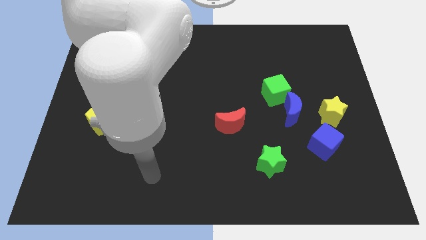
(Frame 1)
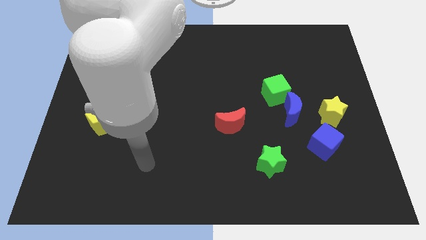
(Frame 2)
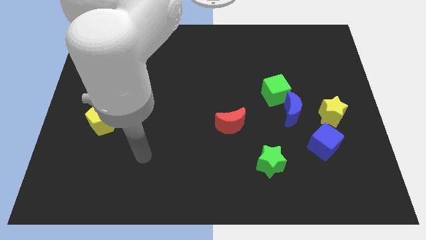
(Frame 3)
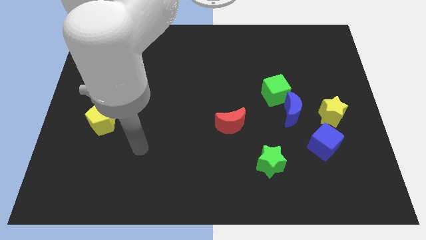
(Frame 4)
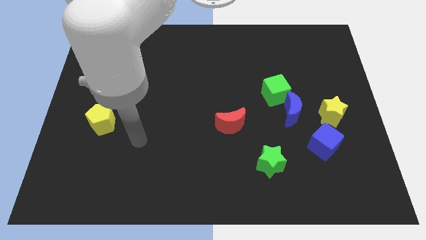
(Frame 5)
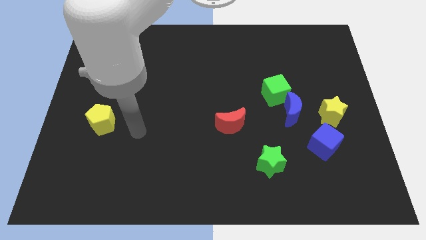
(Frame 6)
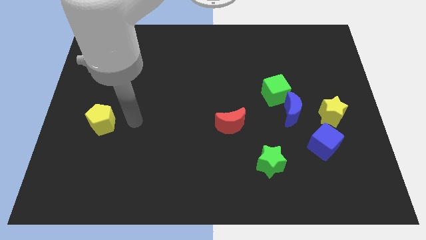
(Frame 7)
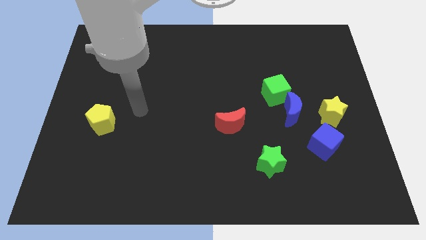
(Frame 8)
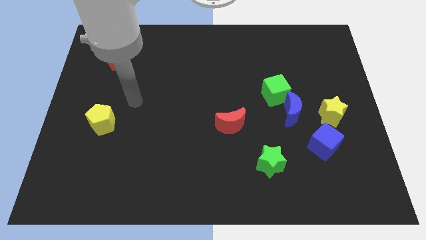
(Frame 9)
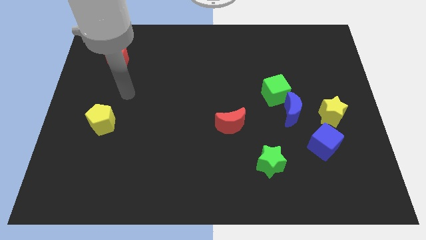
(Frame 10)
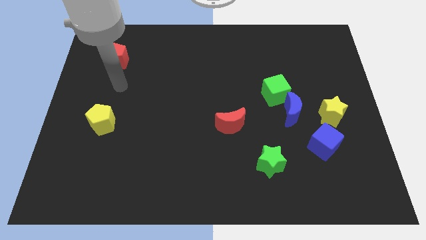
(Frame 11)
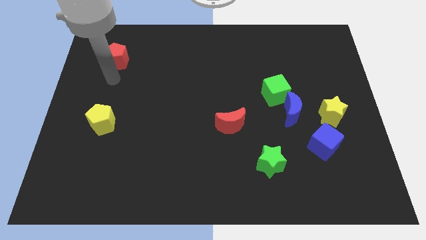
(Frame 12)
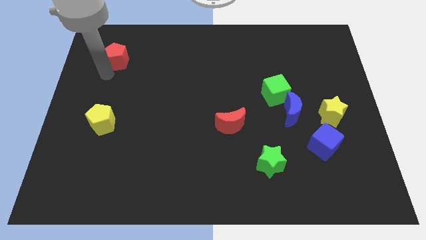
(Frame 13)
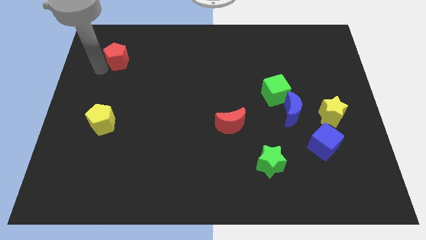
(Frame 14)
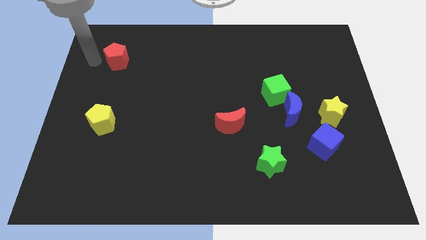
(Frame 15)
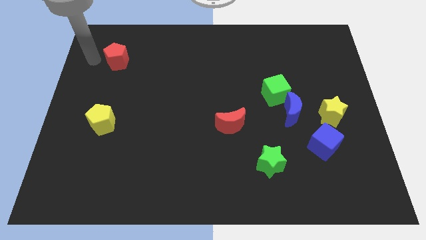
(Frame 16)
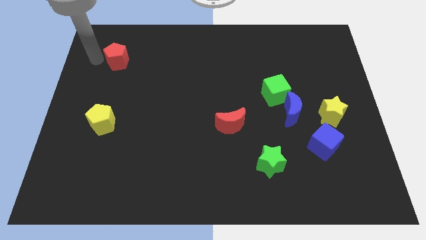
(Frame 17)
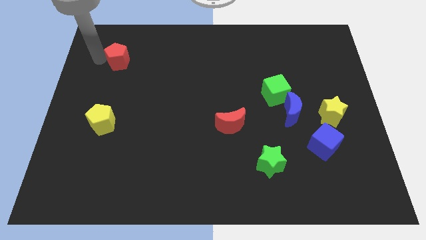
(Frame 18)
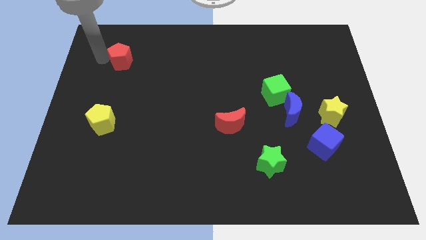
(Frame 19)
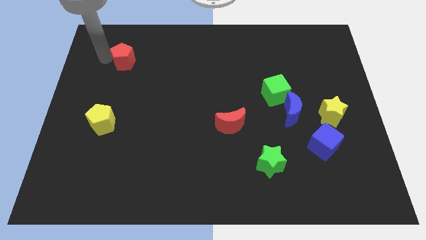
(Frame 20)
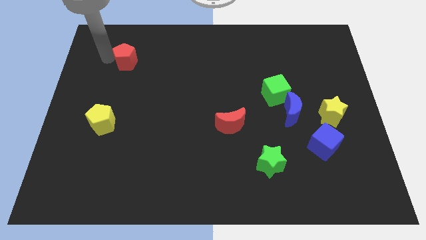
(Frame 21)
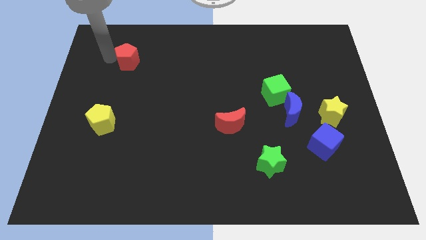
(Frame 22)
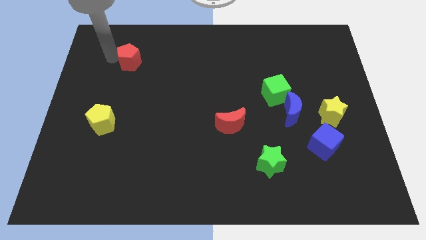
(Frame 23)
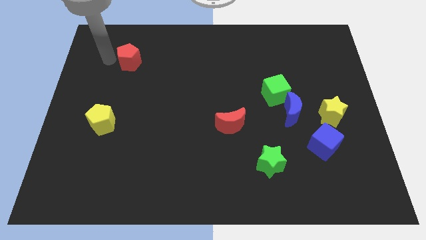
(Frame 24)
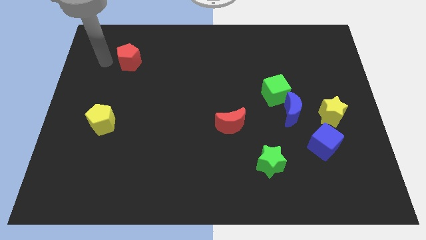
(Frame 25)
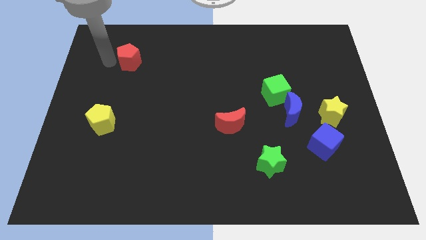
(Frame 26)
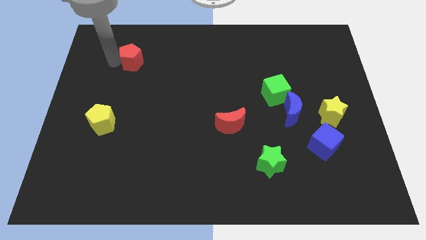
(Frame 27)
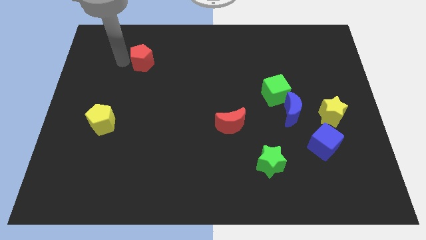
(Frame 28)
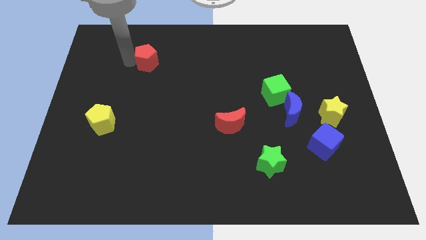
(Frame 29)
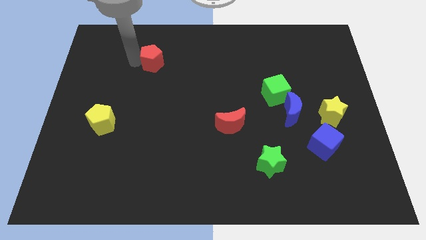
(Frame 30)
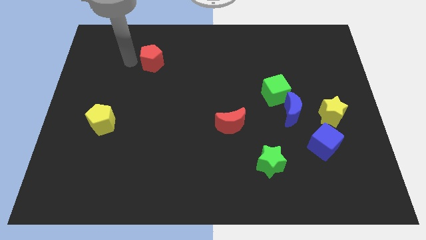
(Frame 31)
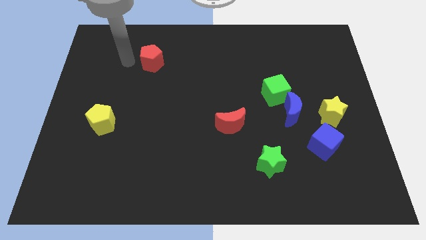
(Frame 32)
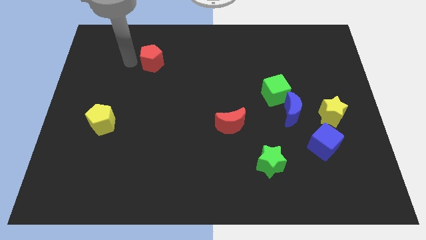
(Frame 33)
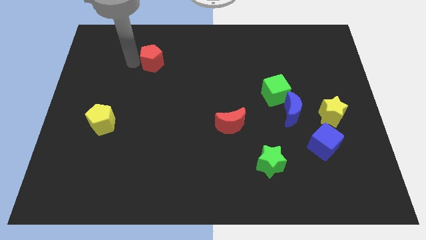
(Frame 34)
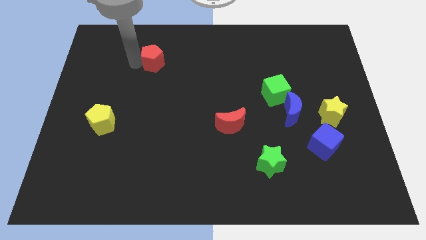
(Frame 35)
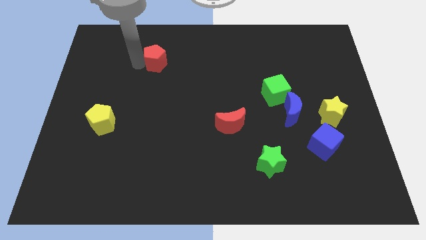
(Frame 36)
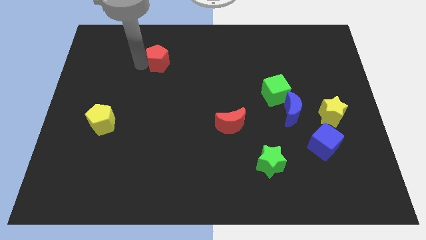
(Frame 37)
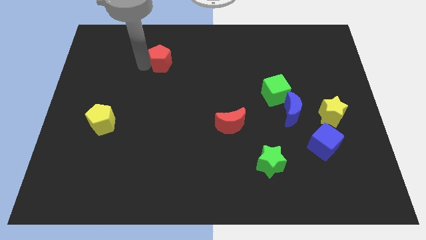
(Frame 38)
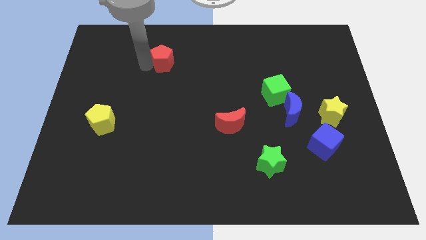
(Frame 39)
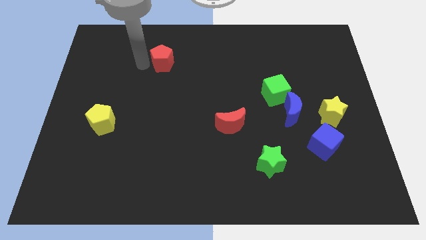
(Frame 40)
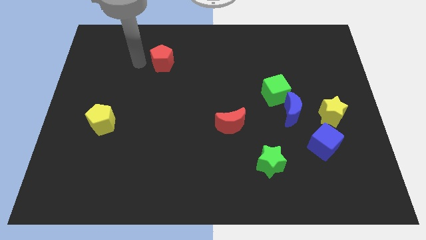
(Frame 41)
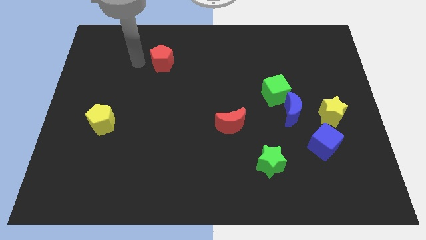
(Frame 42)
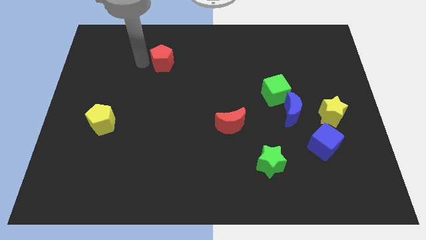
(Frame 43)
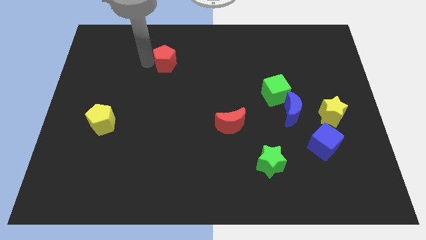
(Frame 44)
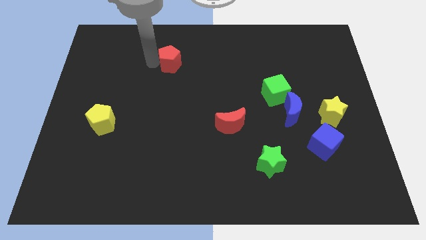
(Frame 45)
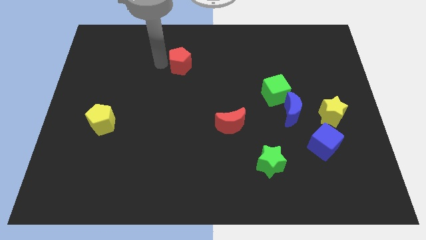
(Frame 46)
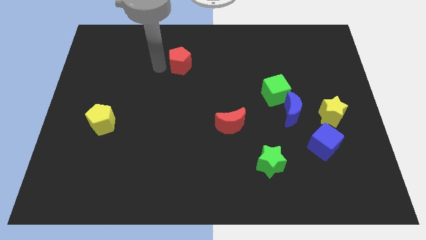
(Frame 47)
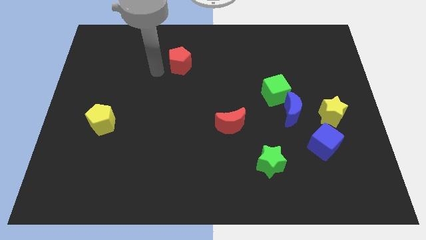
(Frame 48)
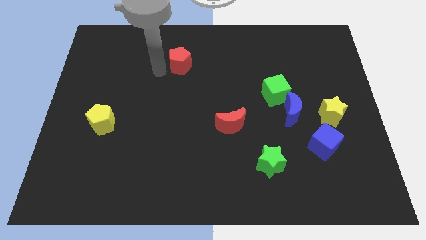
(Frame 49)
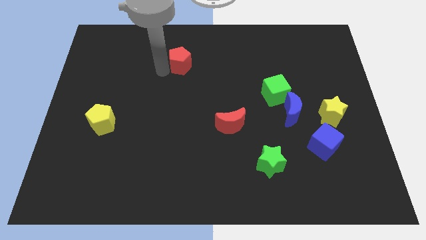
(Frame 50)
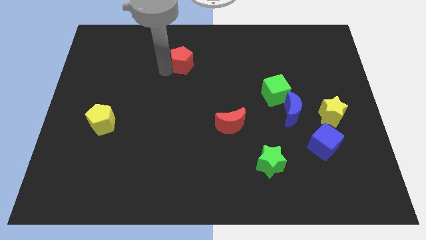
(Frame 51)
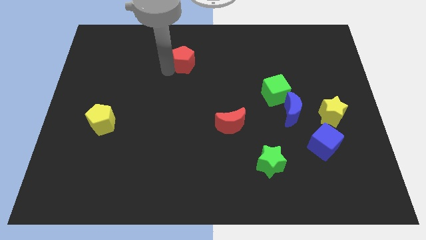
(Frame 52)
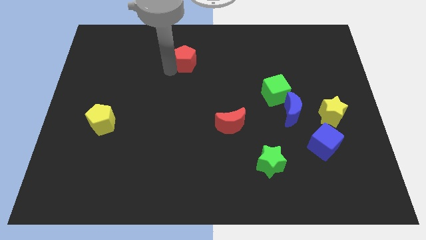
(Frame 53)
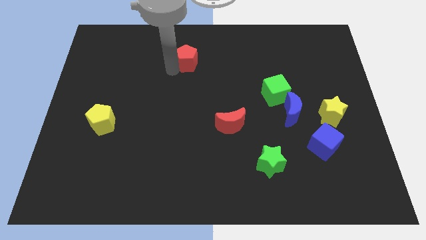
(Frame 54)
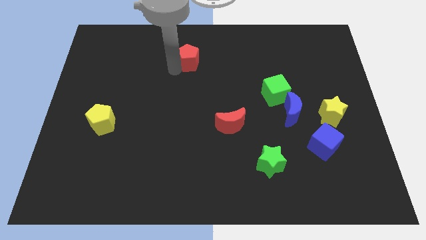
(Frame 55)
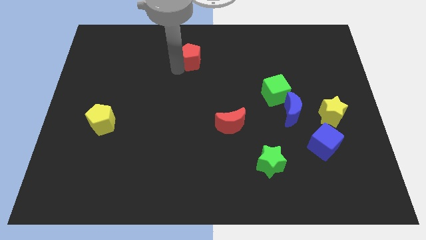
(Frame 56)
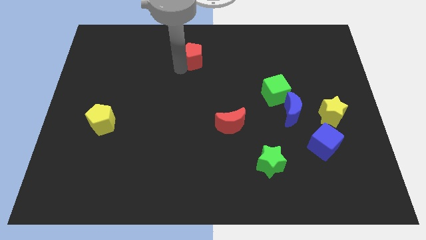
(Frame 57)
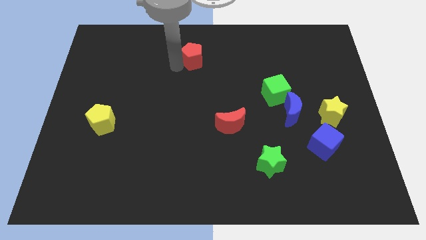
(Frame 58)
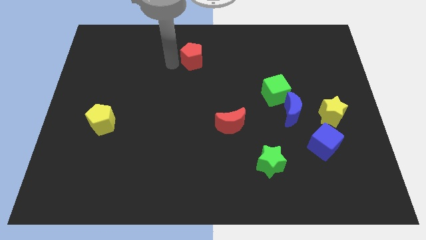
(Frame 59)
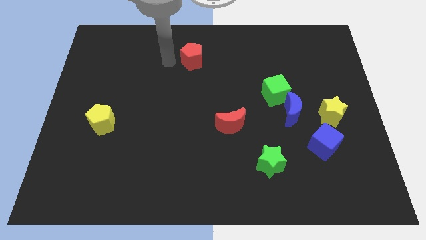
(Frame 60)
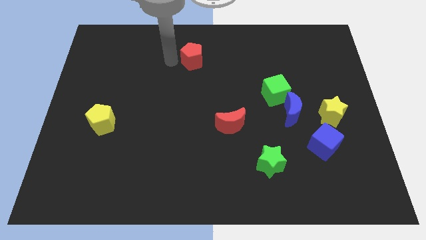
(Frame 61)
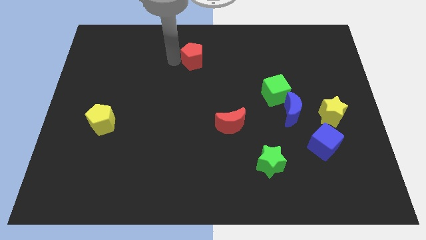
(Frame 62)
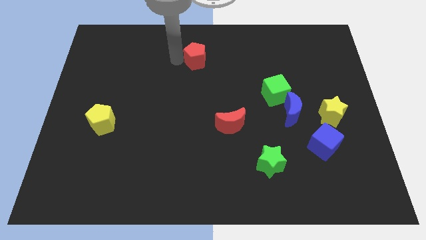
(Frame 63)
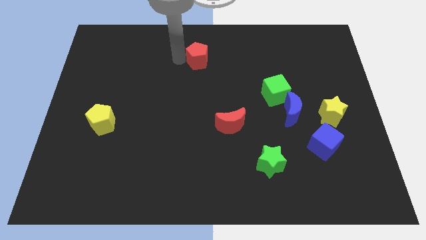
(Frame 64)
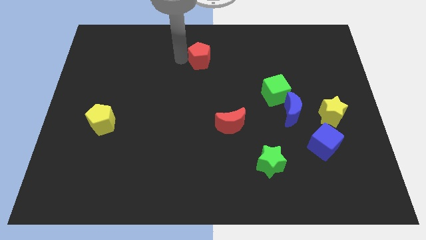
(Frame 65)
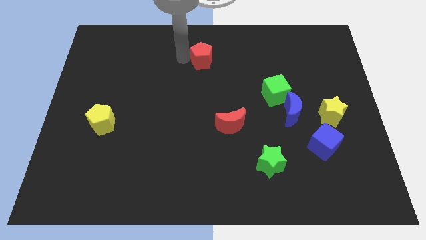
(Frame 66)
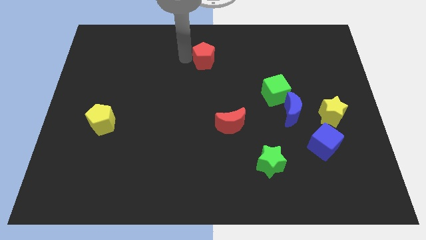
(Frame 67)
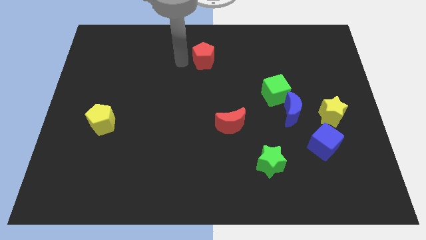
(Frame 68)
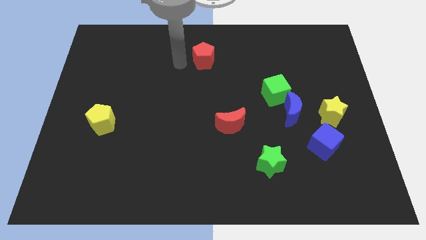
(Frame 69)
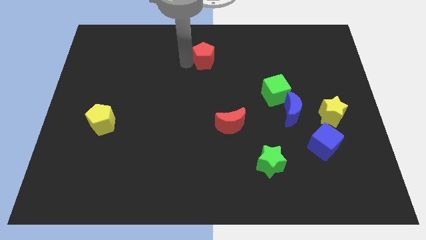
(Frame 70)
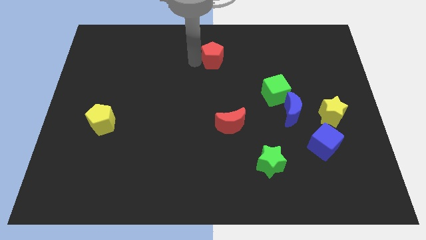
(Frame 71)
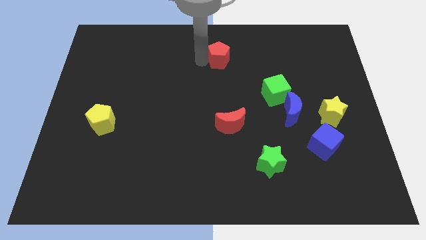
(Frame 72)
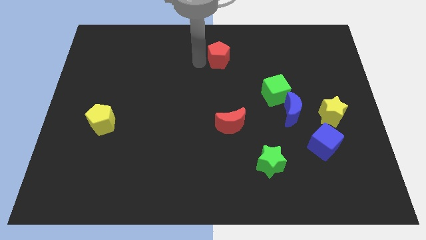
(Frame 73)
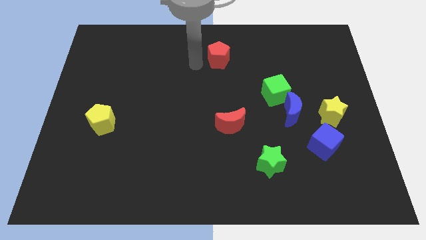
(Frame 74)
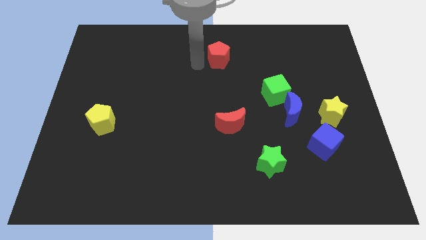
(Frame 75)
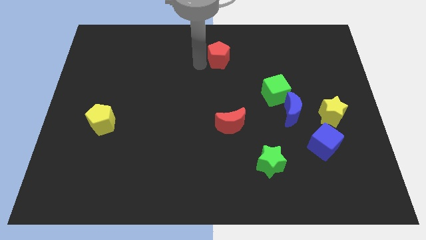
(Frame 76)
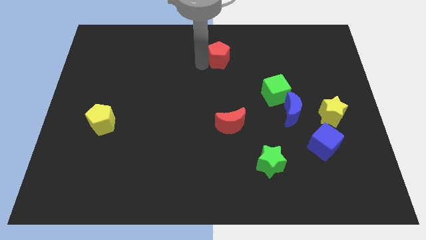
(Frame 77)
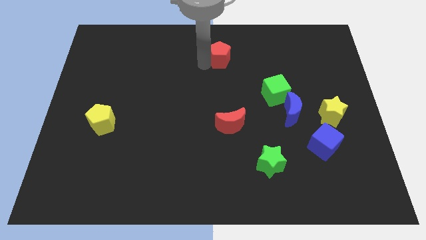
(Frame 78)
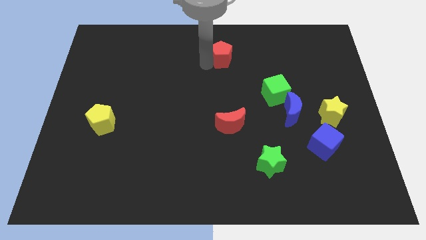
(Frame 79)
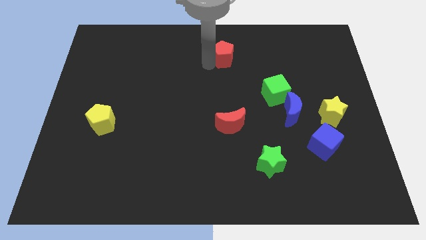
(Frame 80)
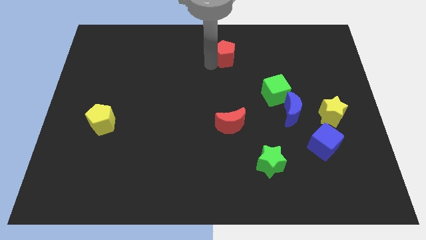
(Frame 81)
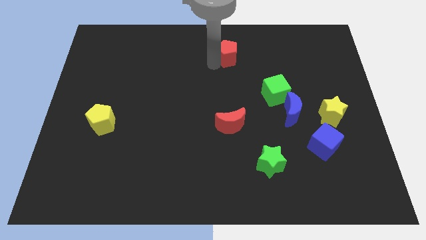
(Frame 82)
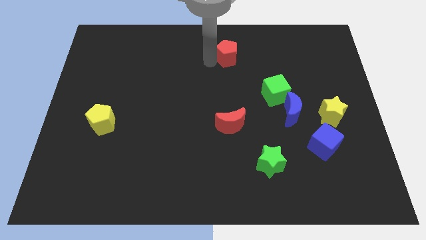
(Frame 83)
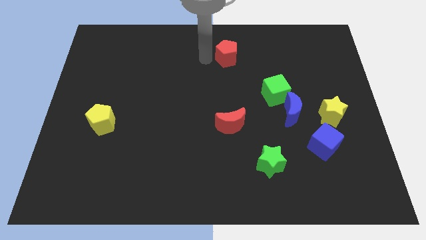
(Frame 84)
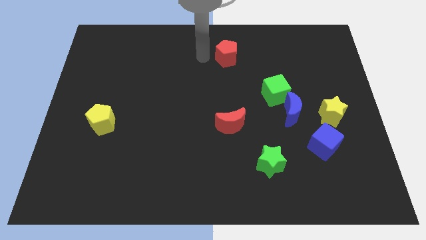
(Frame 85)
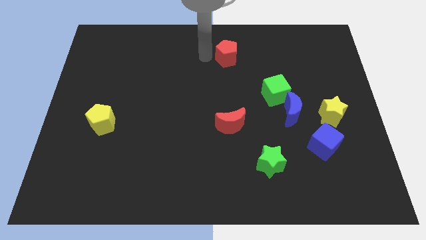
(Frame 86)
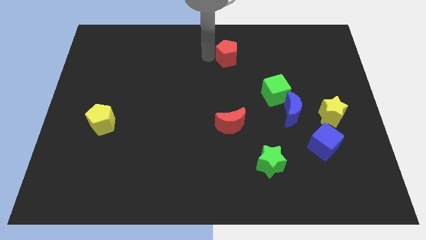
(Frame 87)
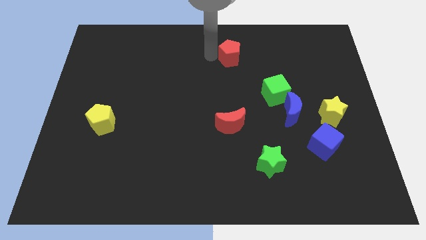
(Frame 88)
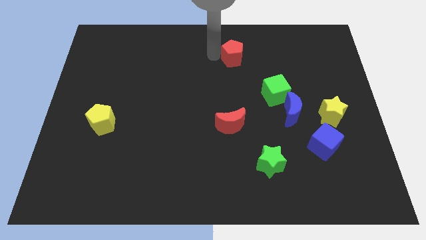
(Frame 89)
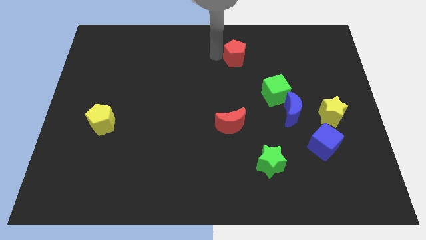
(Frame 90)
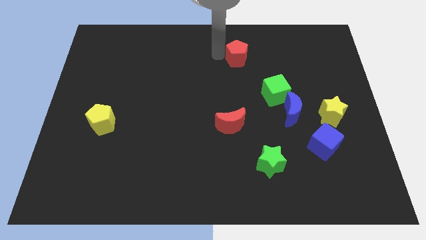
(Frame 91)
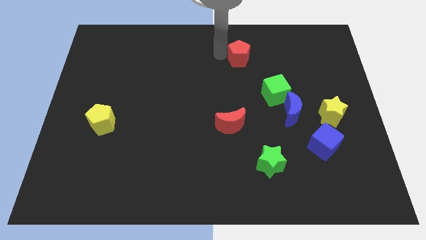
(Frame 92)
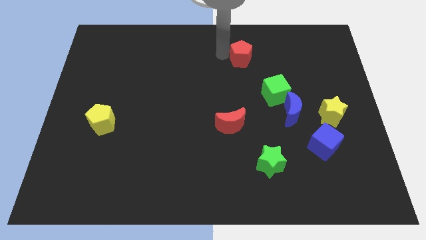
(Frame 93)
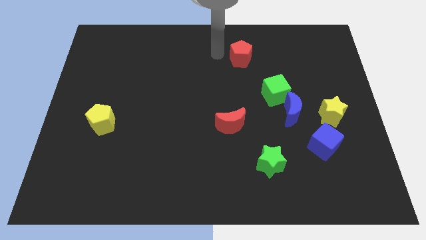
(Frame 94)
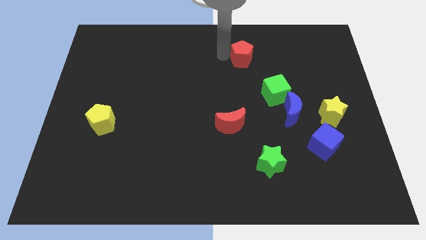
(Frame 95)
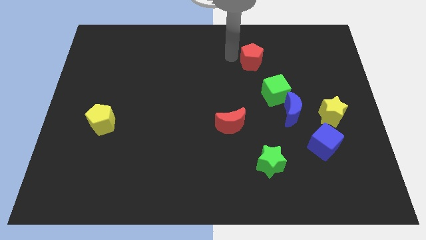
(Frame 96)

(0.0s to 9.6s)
push the red pentagon above the green cube
